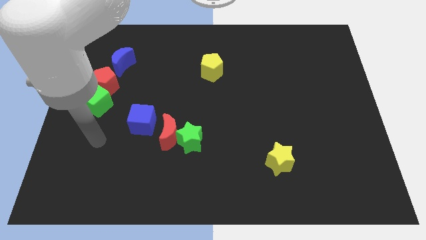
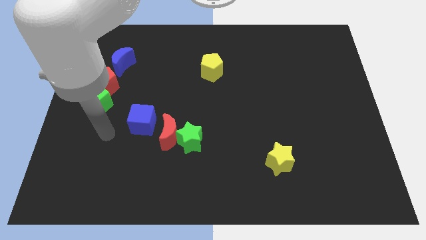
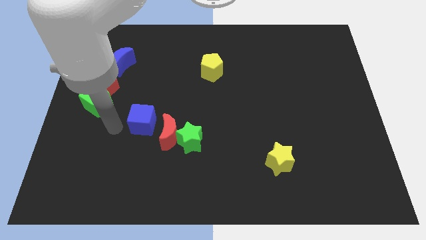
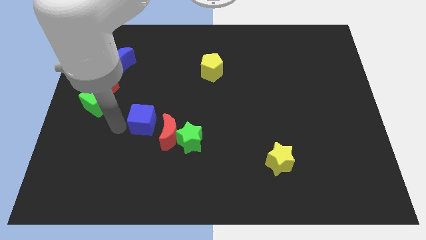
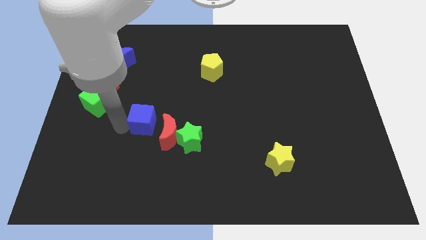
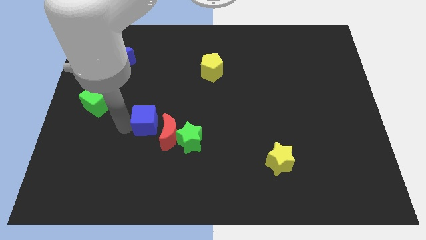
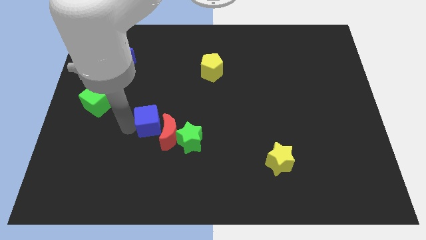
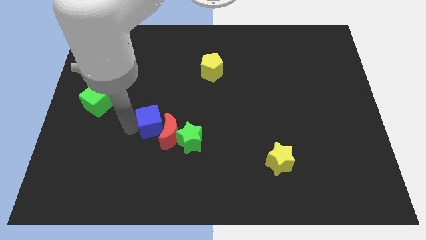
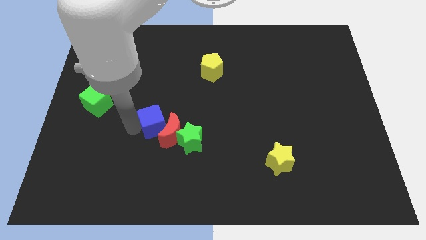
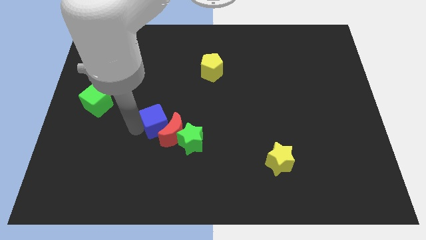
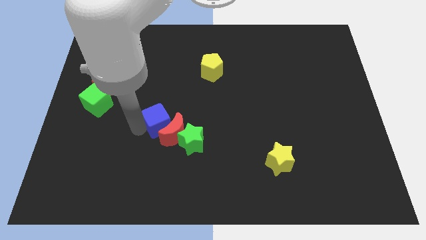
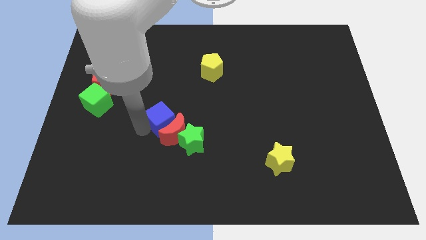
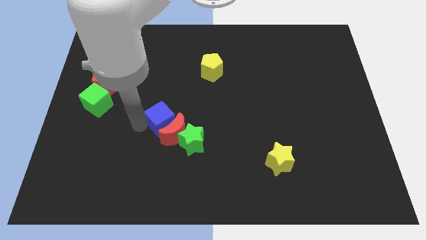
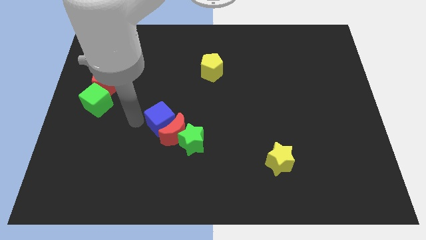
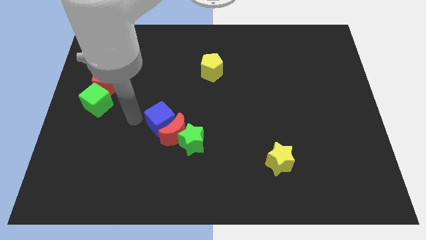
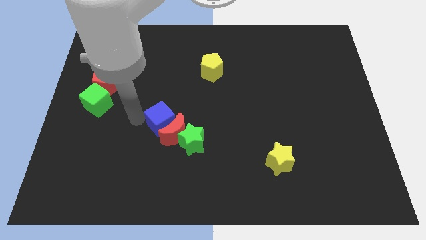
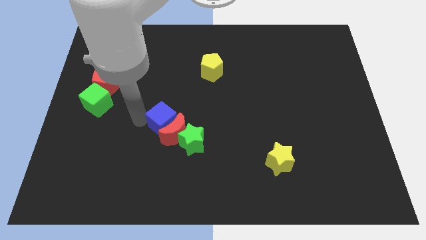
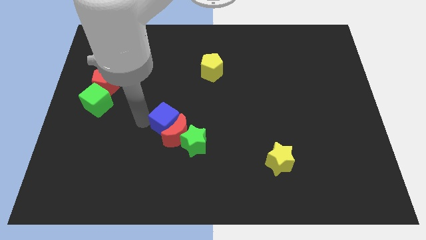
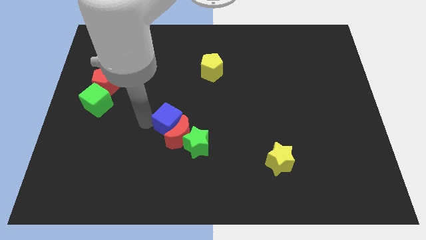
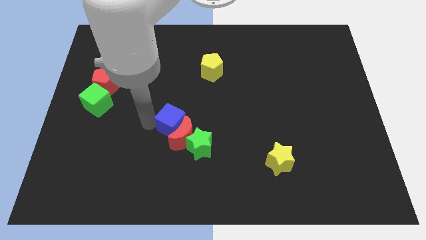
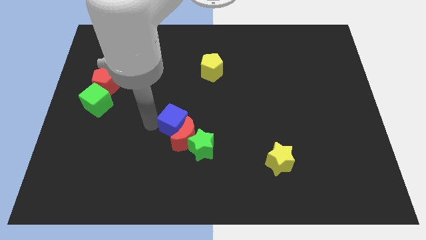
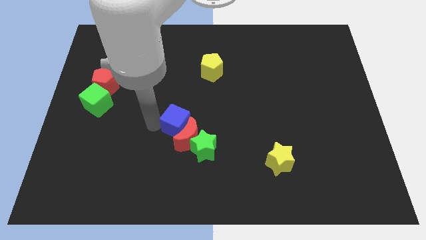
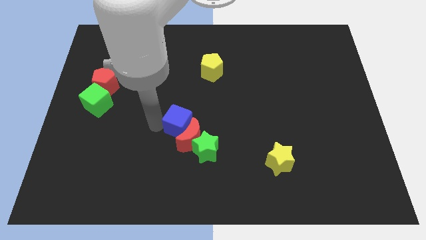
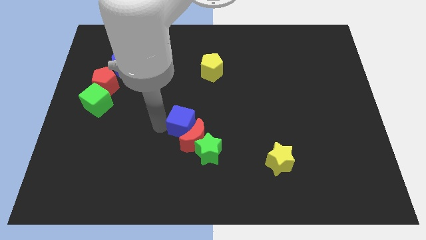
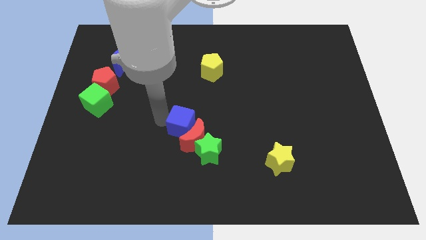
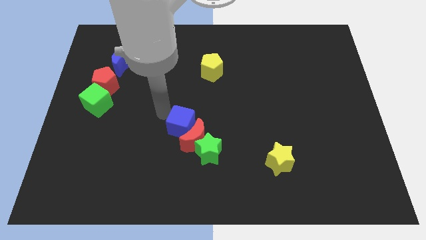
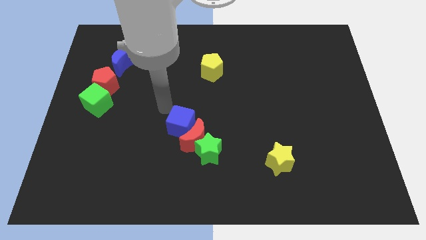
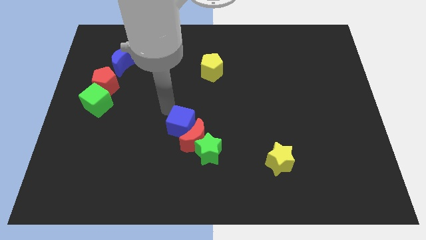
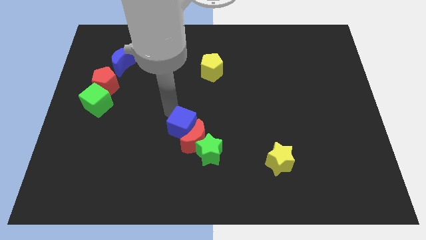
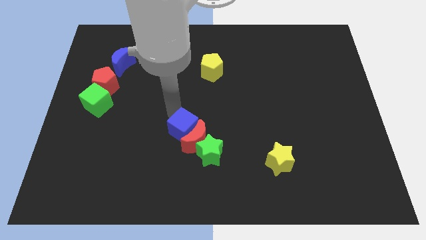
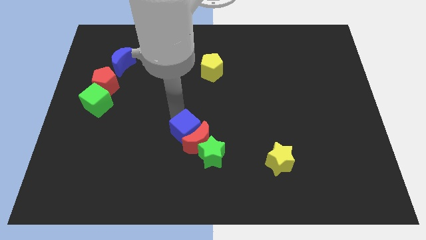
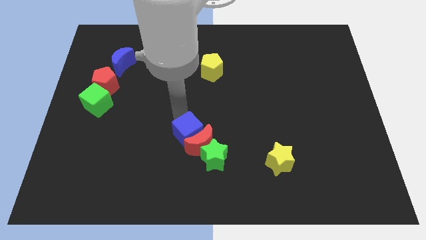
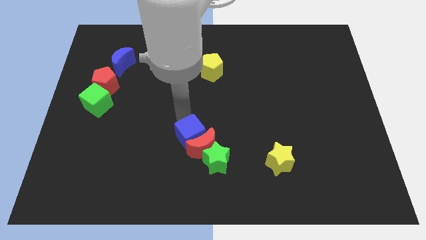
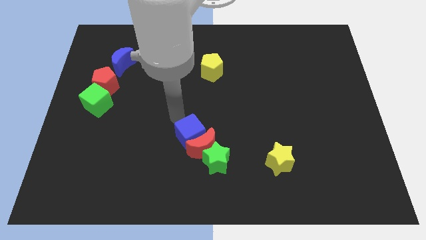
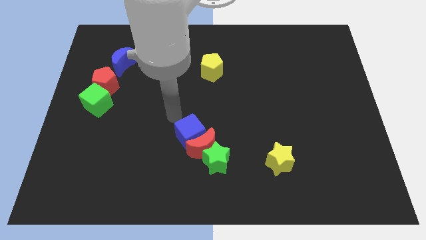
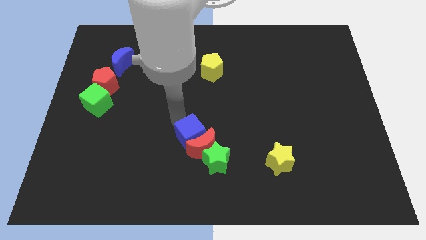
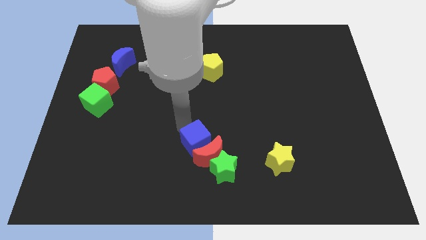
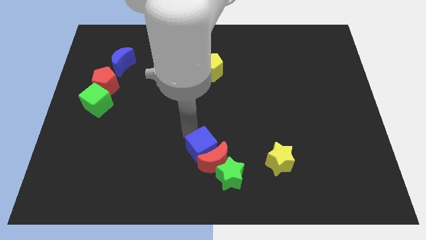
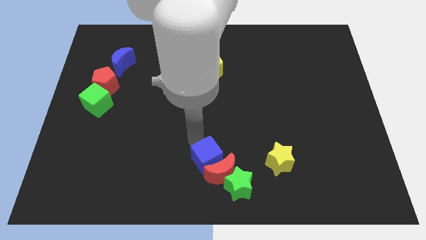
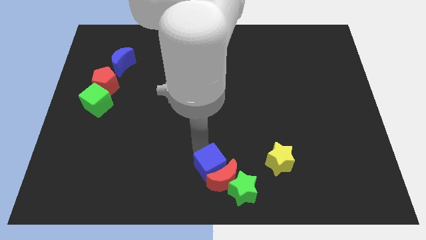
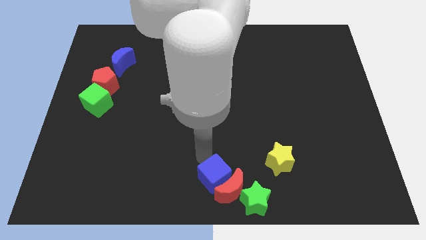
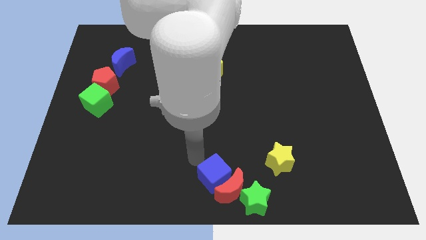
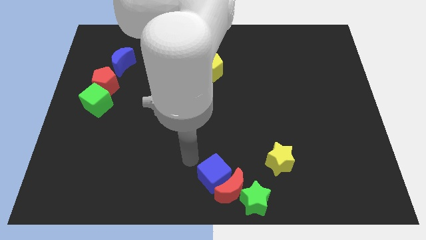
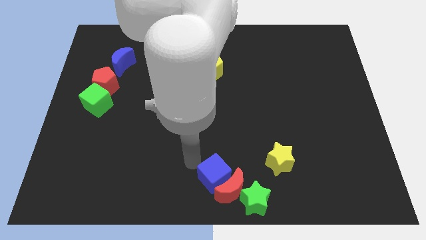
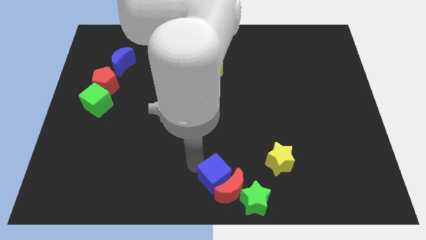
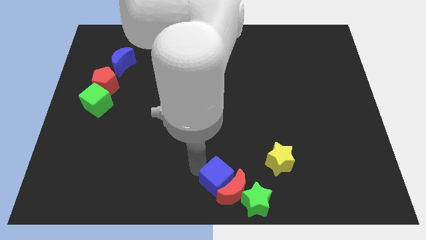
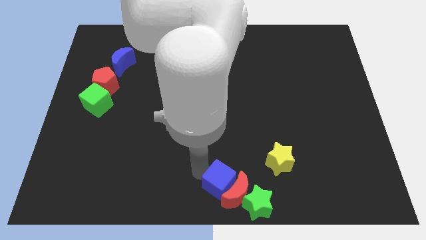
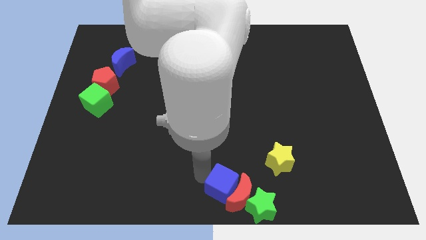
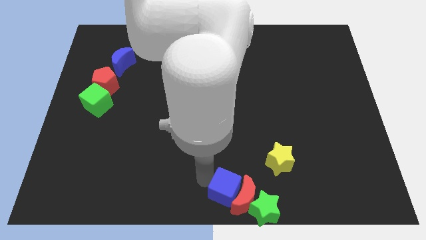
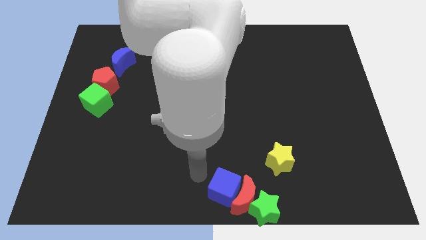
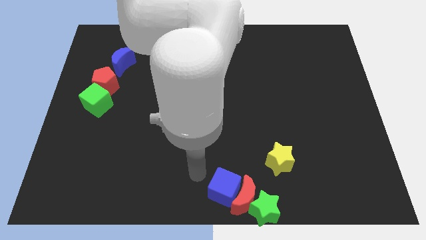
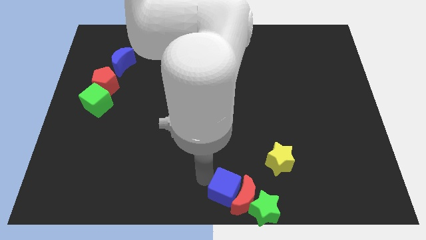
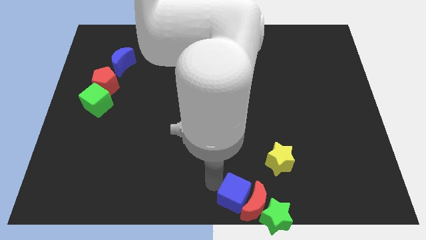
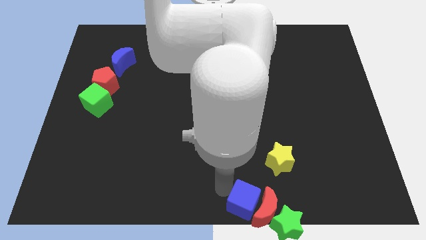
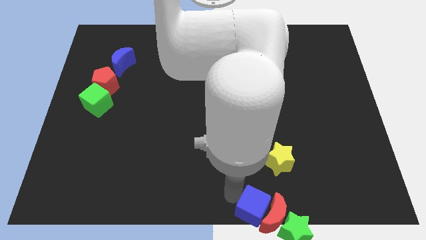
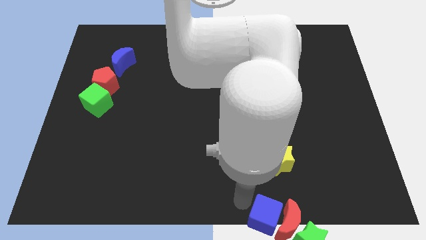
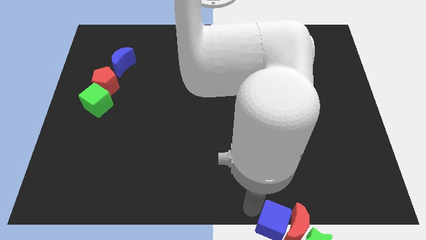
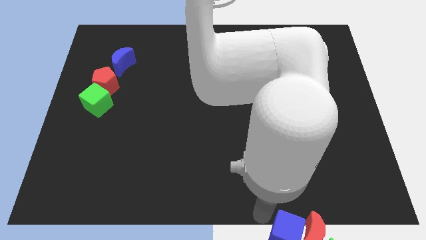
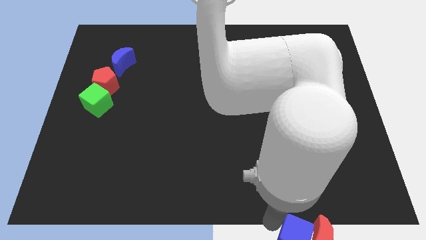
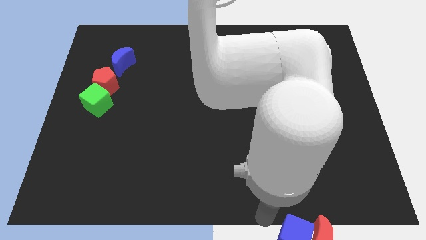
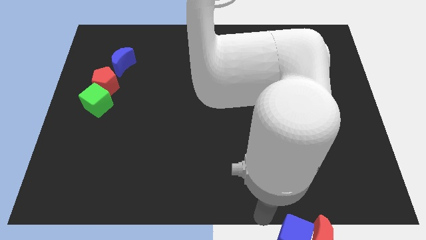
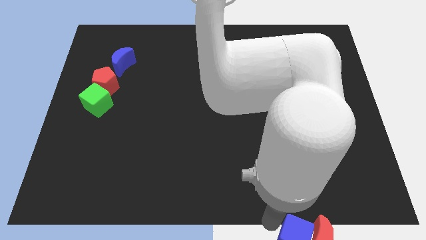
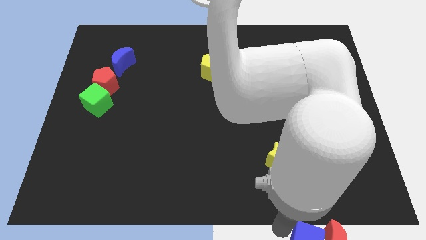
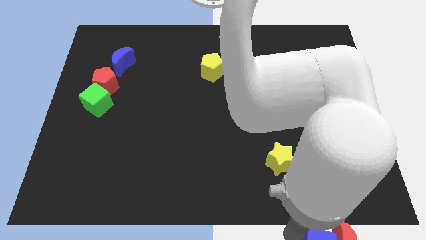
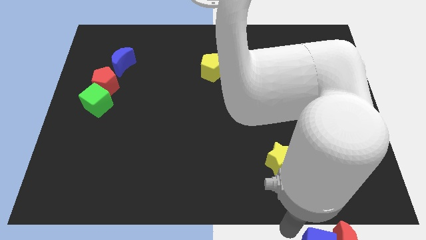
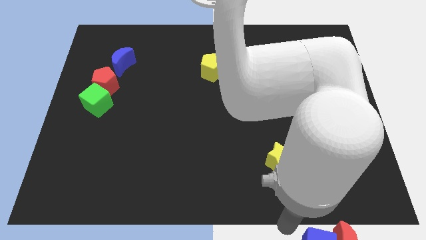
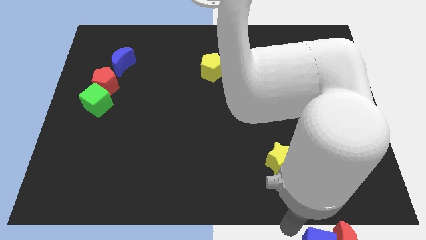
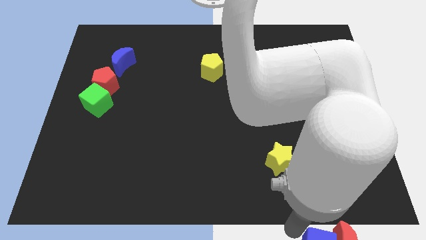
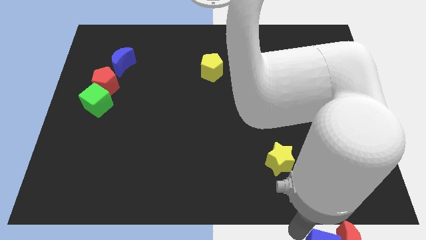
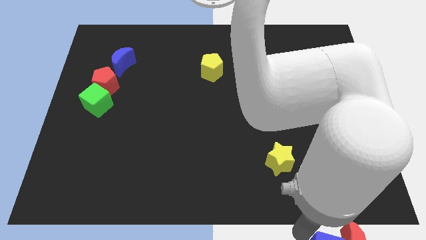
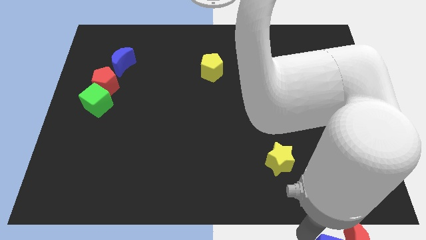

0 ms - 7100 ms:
slide the blue cube next to the green star

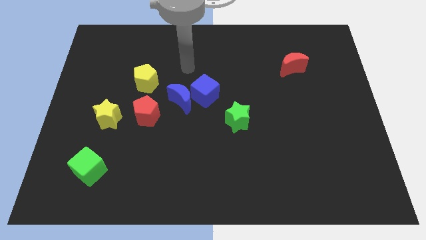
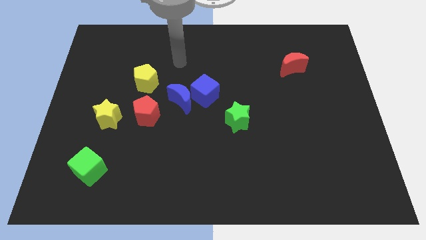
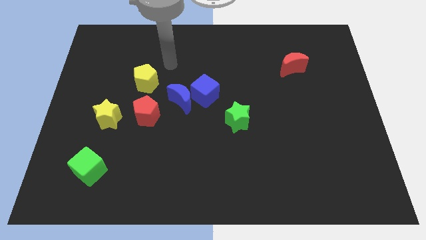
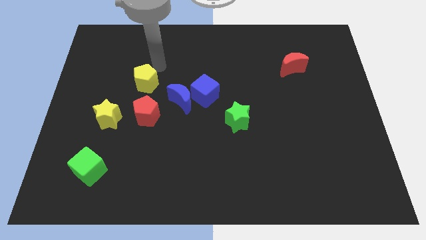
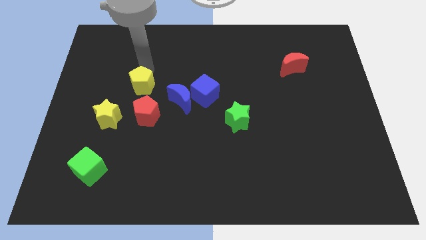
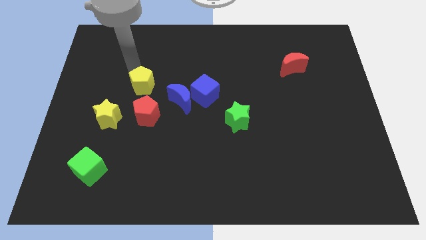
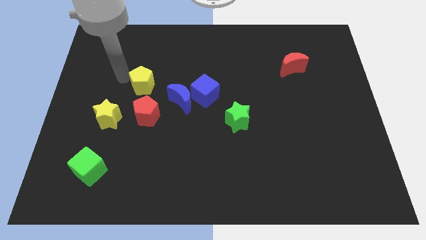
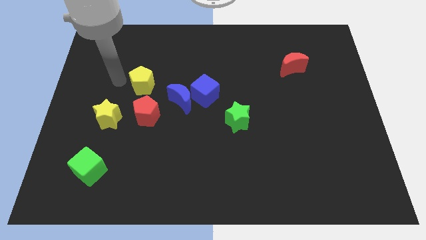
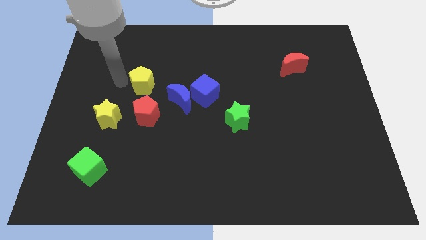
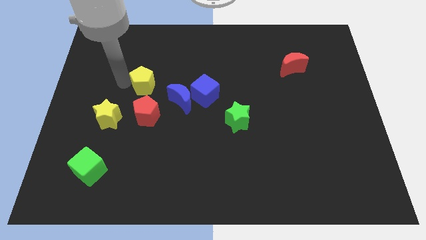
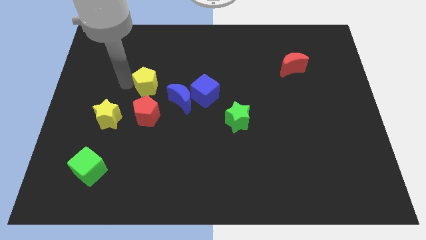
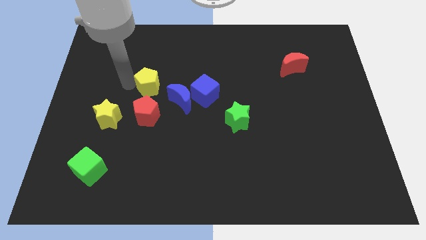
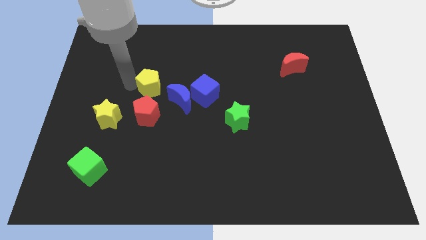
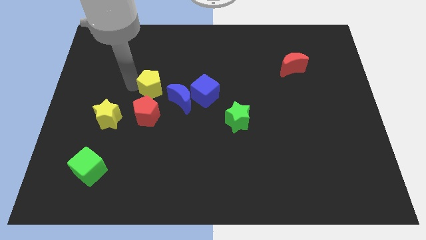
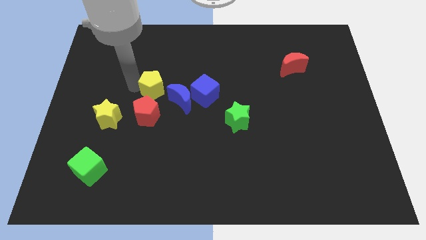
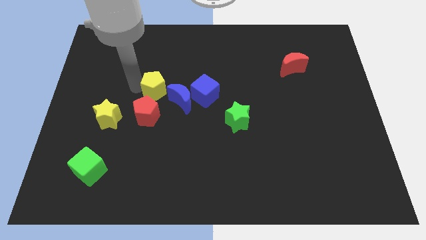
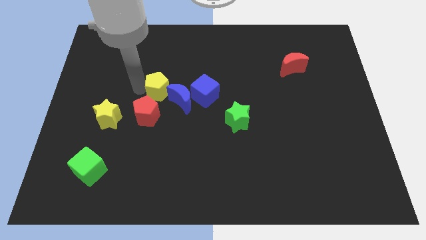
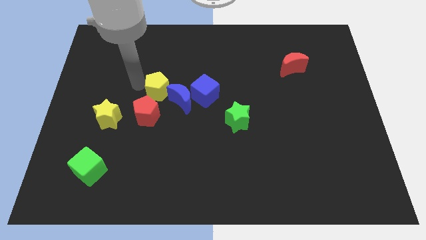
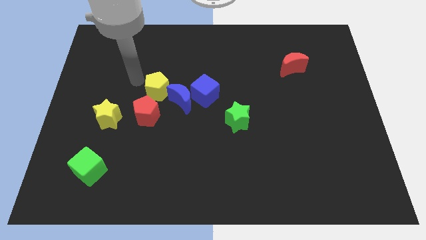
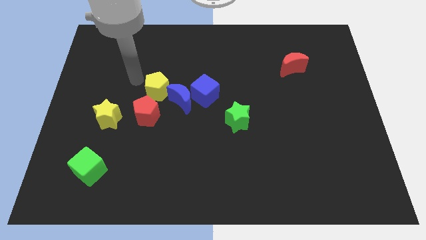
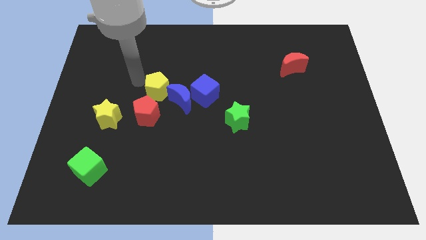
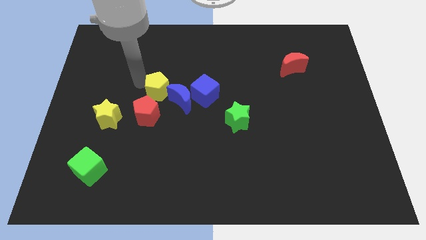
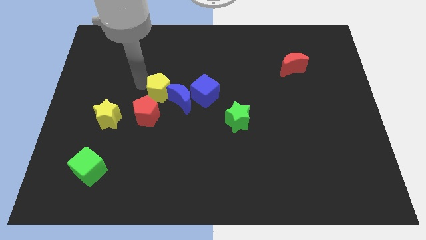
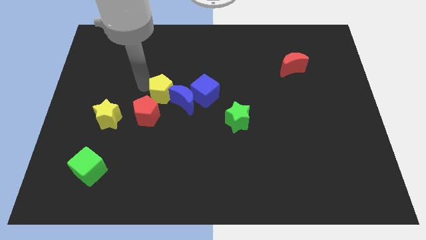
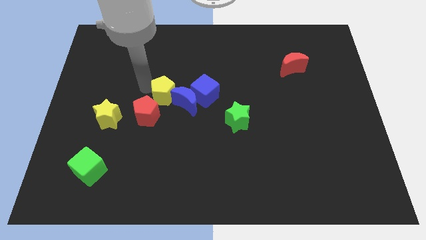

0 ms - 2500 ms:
slide the yellow pentagon next to the blue moon
